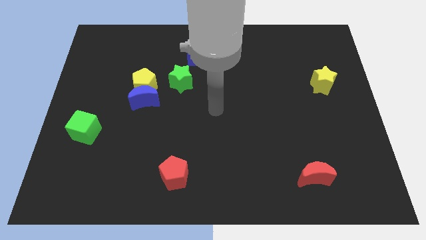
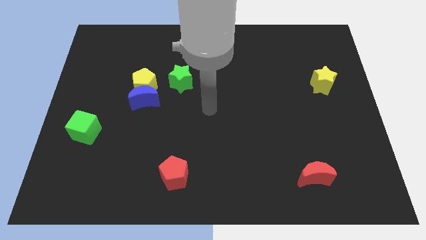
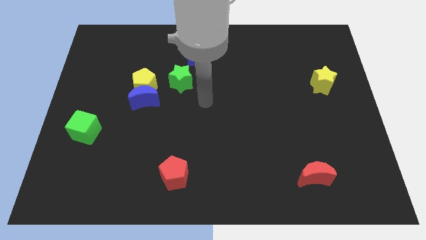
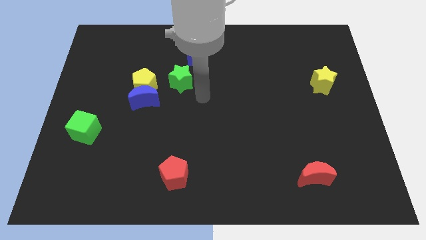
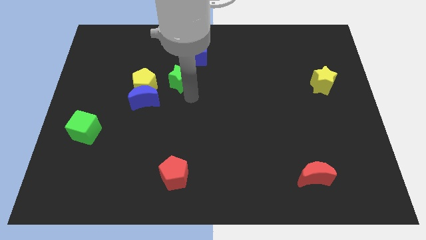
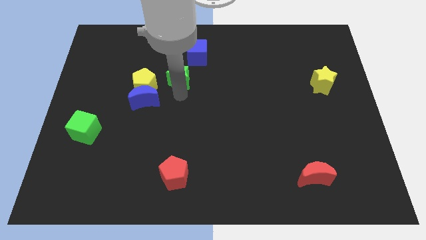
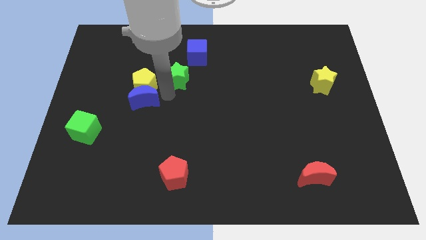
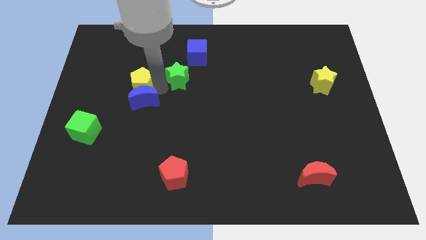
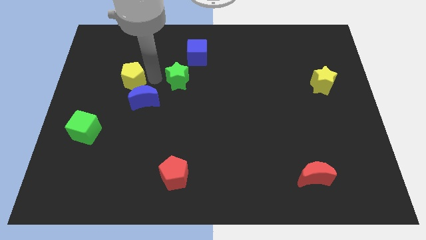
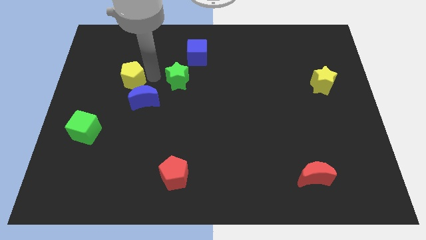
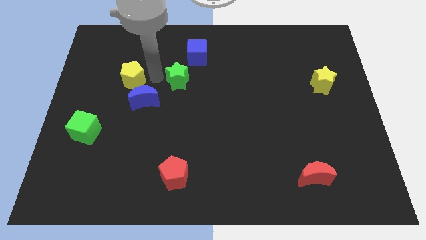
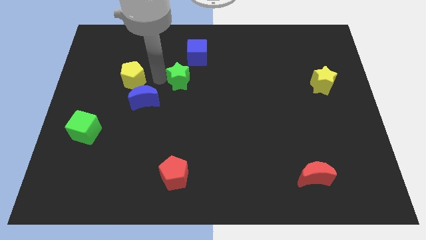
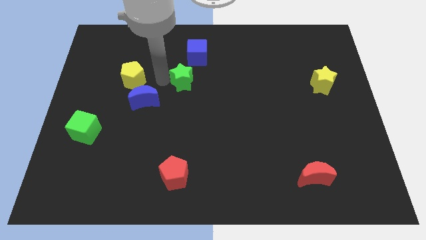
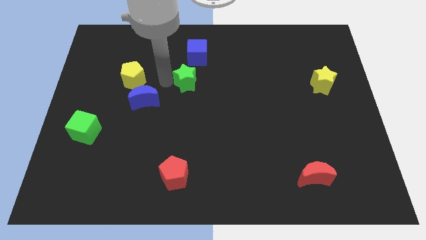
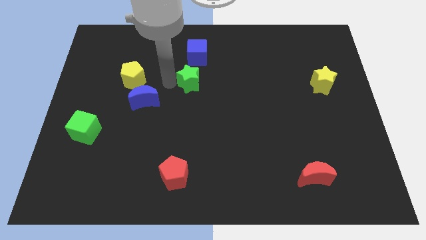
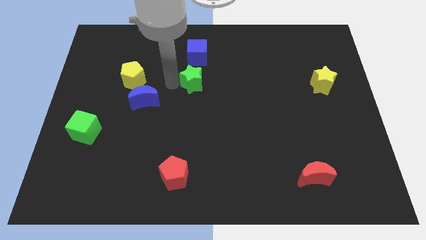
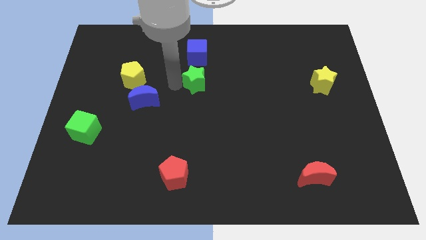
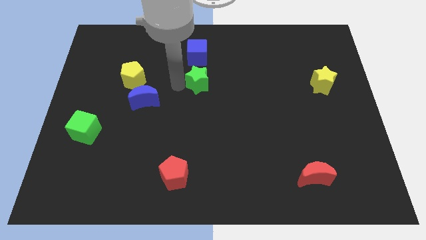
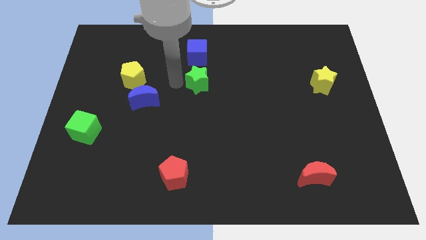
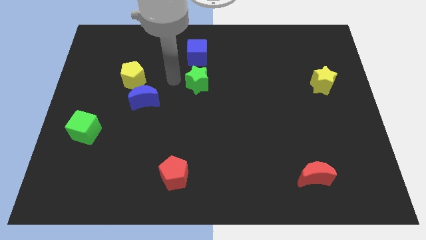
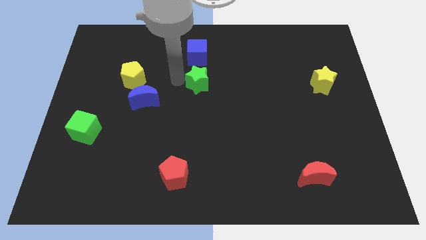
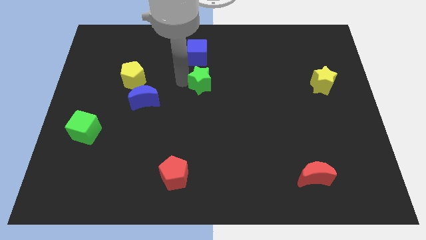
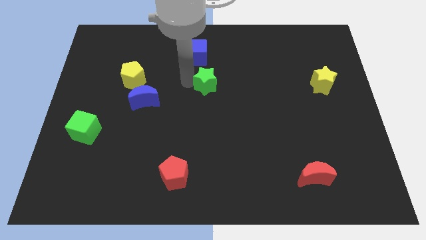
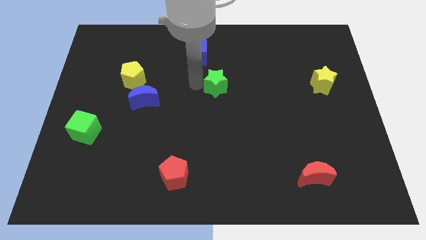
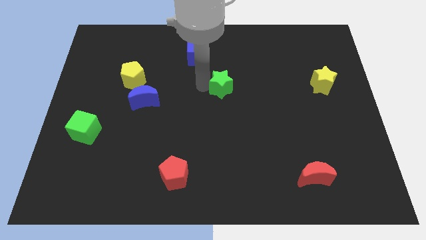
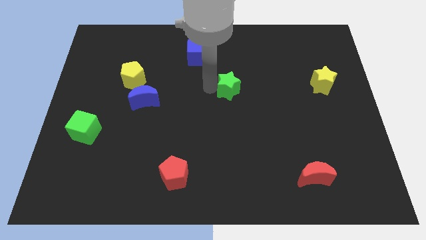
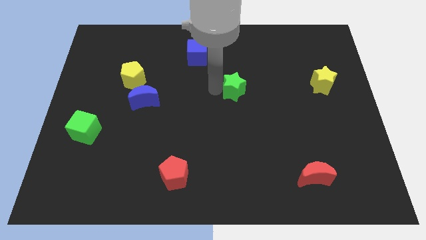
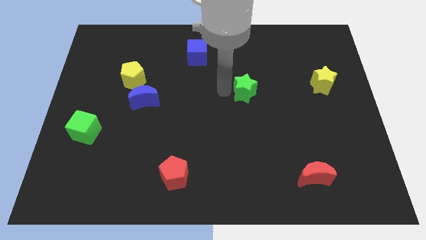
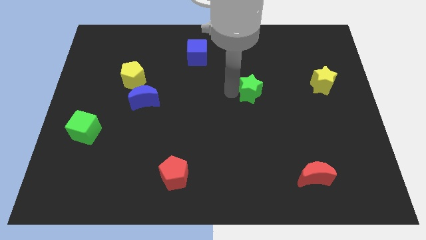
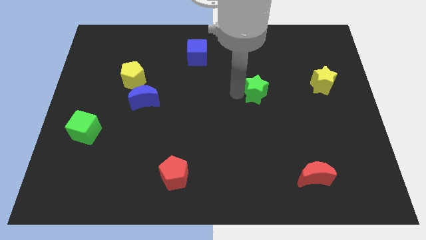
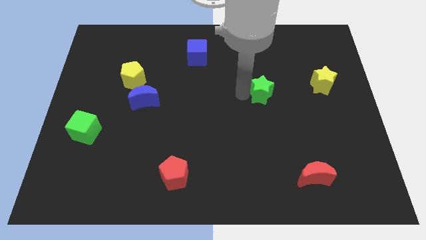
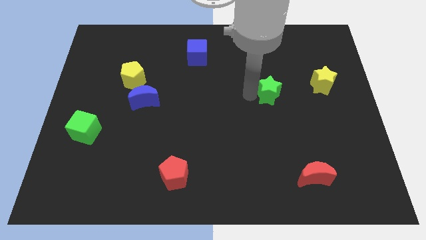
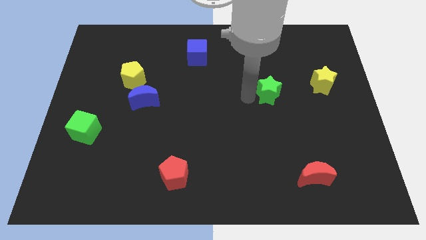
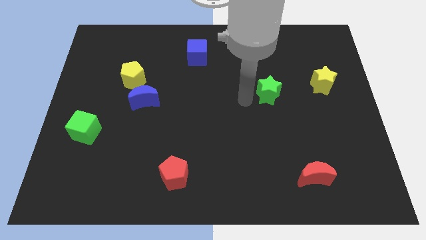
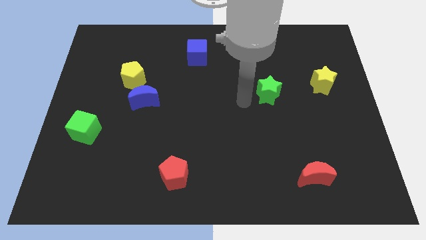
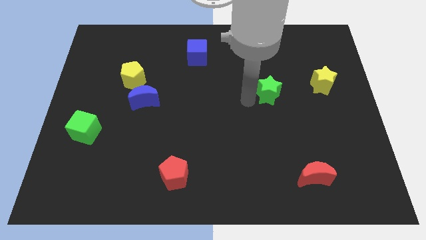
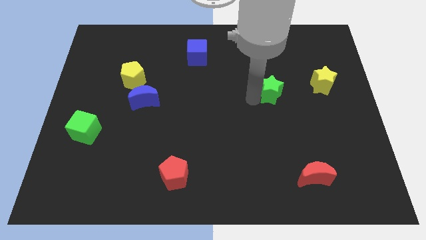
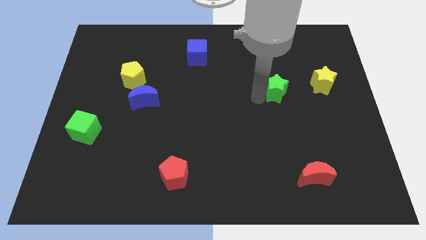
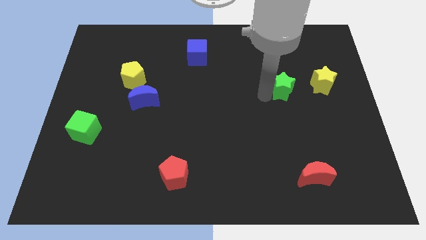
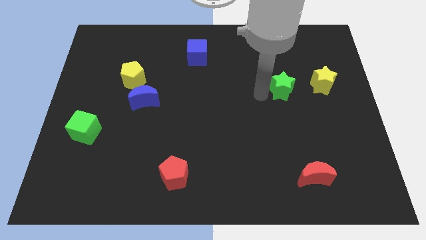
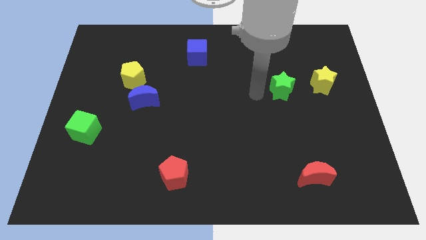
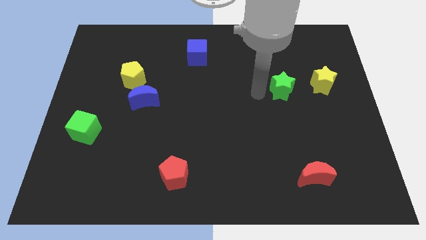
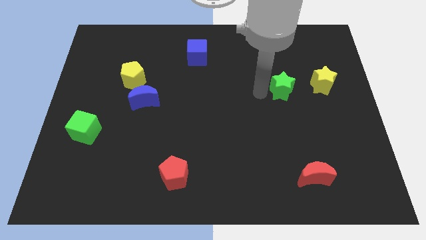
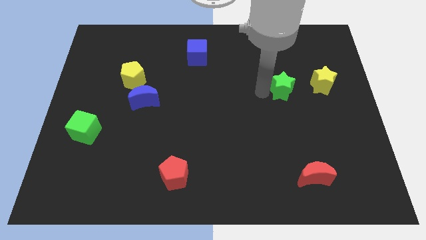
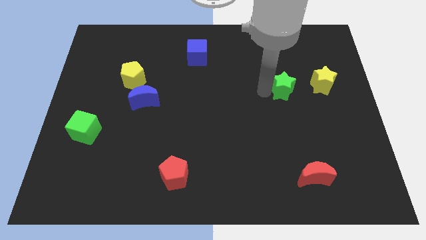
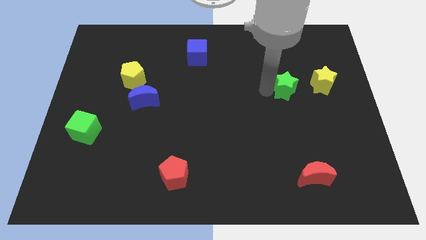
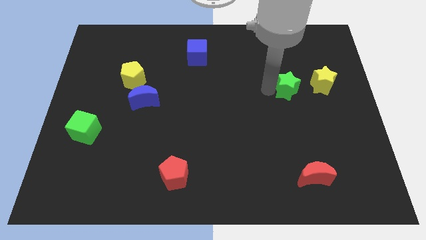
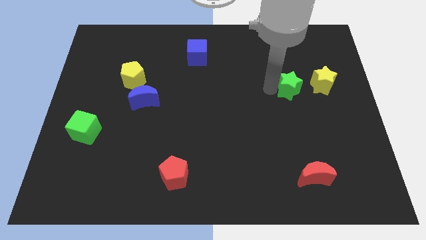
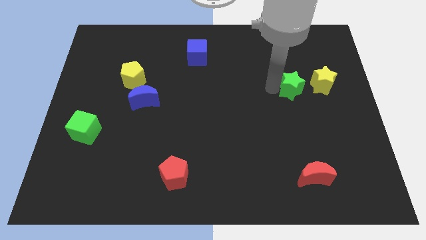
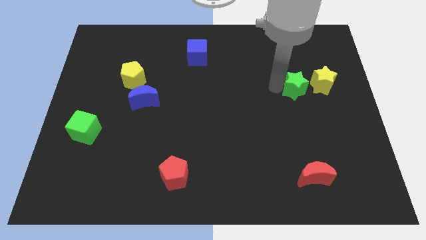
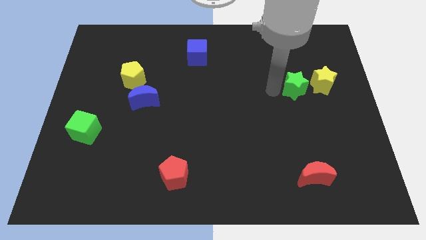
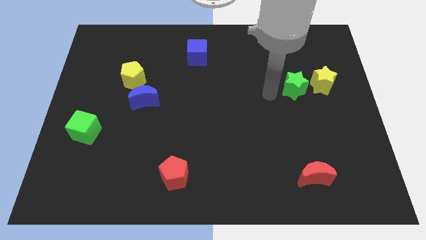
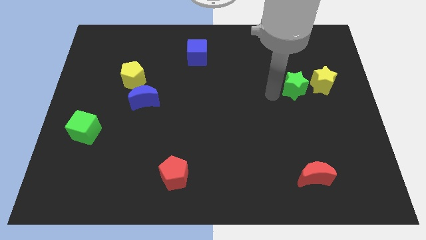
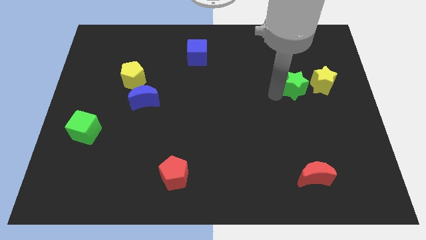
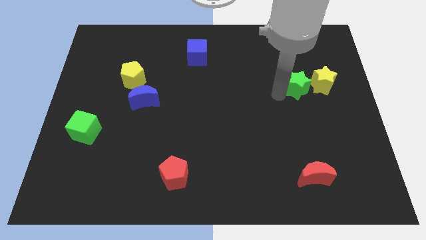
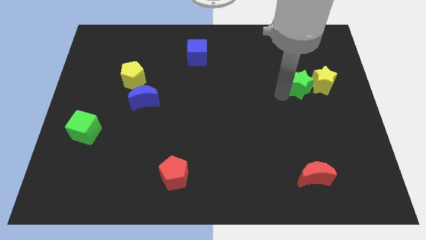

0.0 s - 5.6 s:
push the green star towards the yellow star

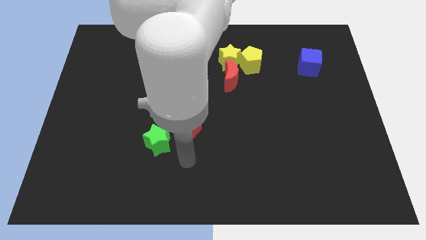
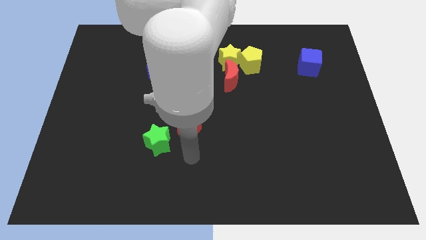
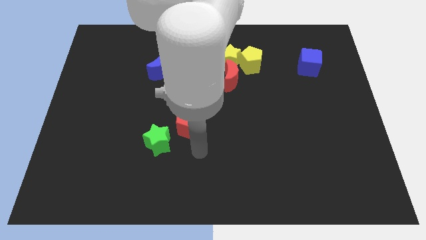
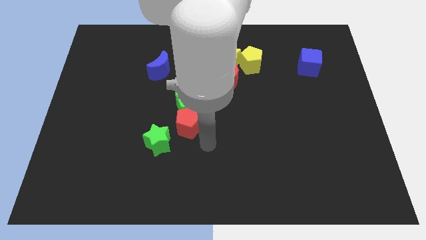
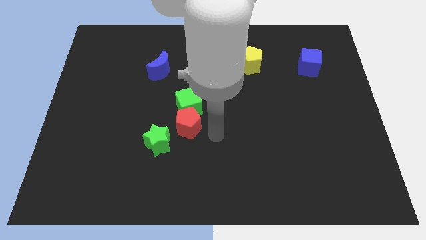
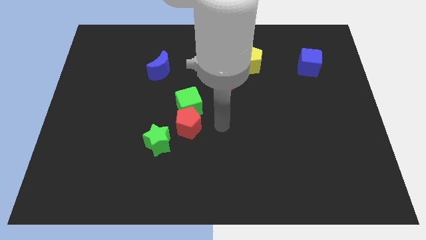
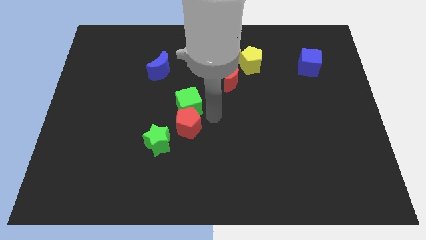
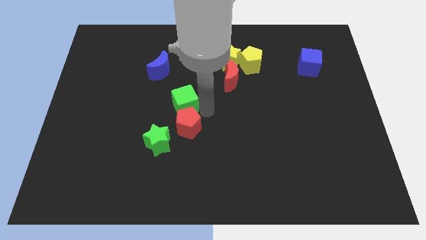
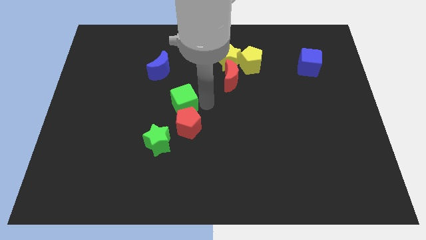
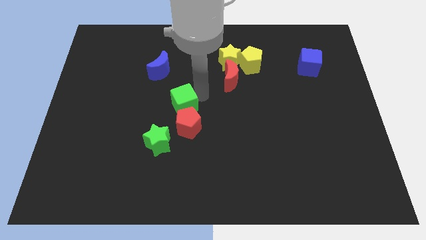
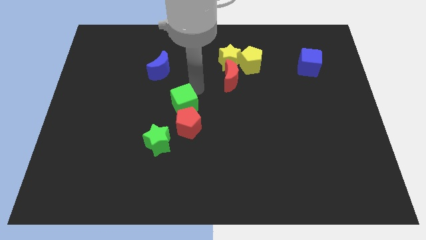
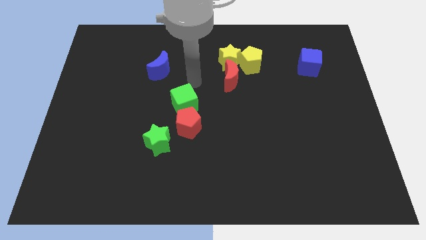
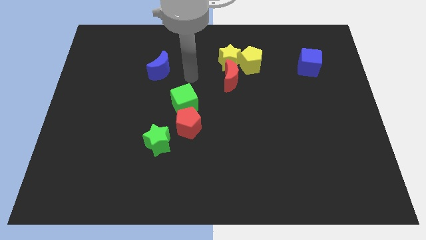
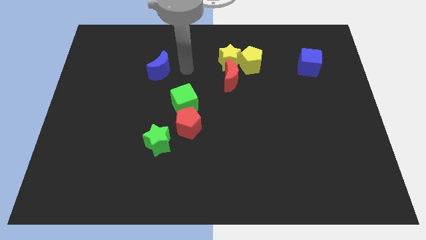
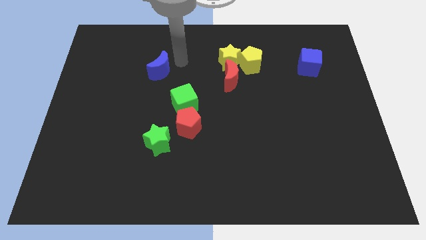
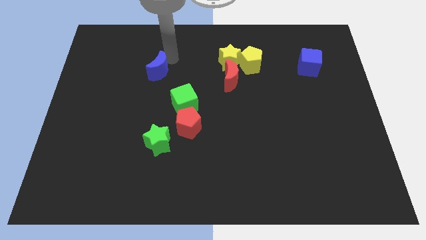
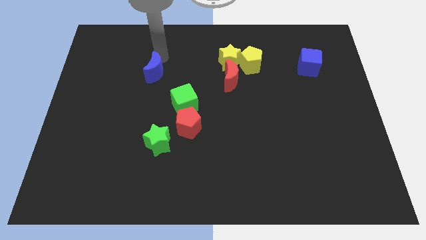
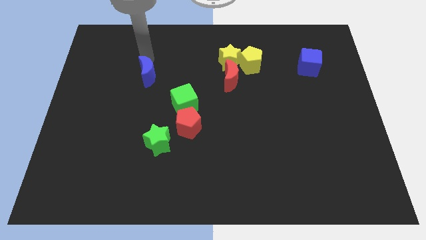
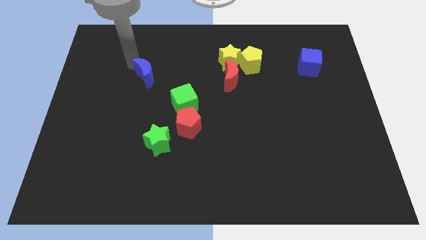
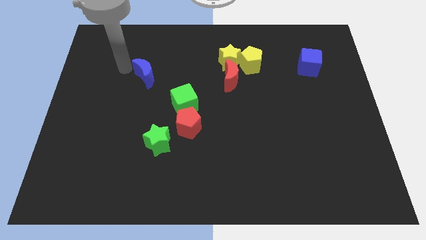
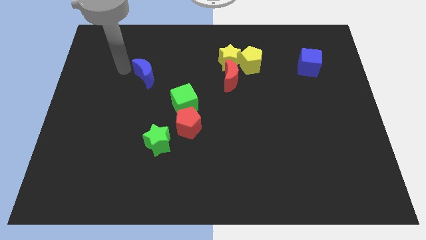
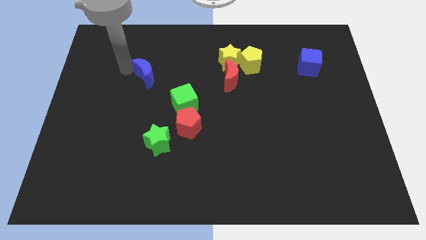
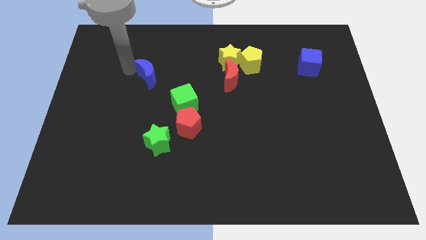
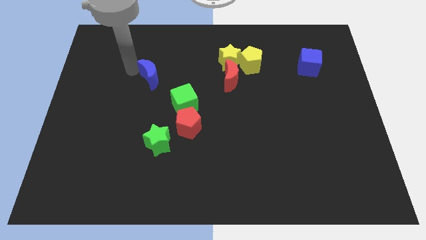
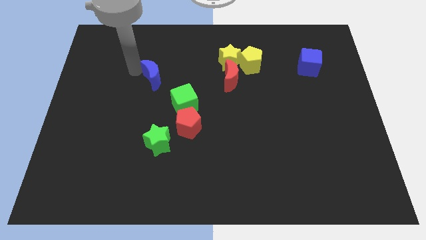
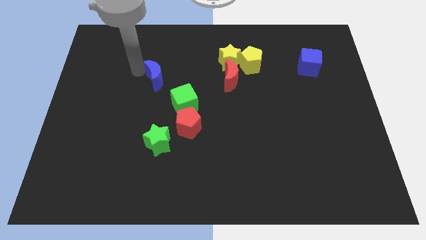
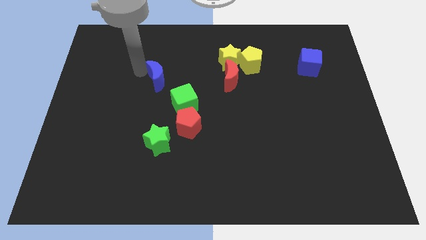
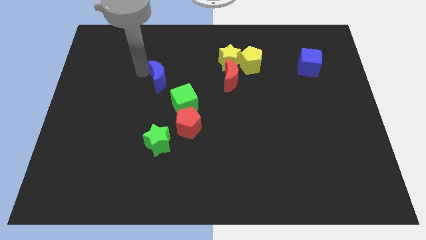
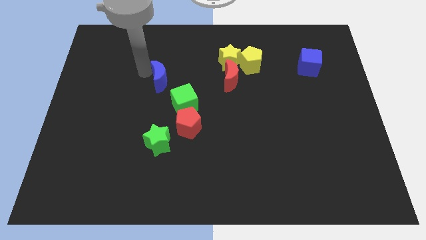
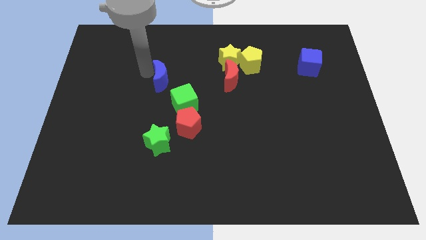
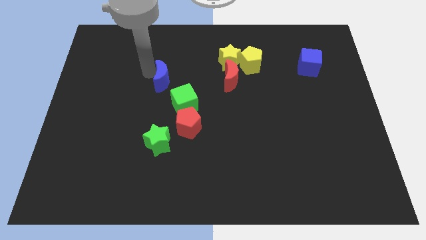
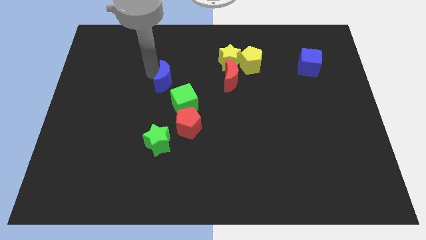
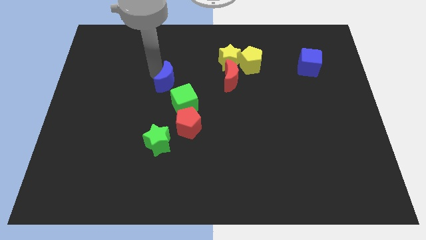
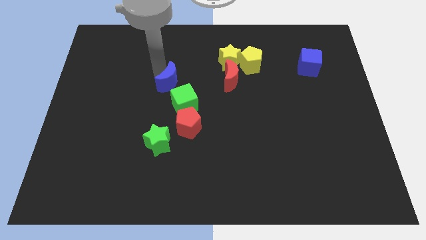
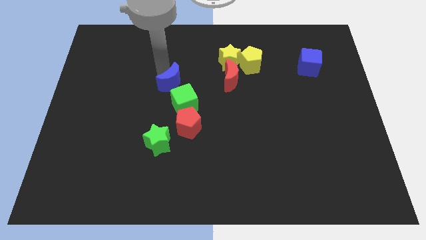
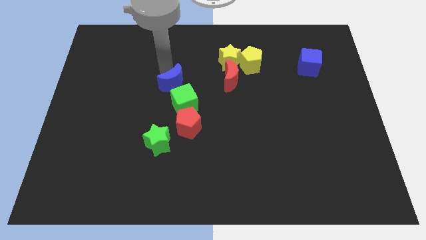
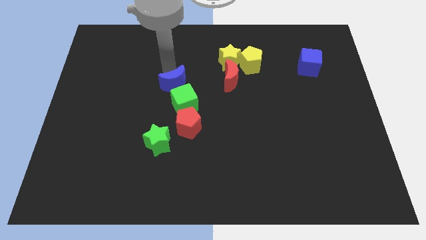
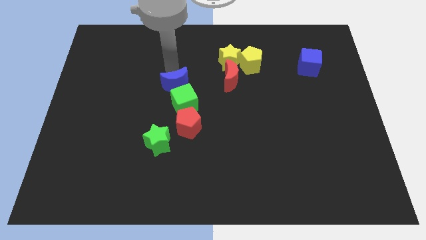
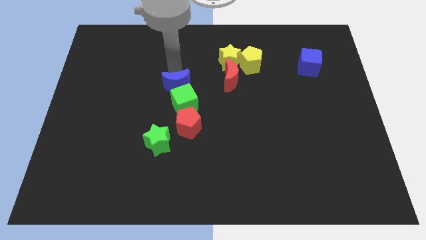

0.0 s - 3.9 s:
push the blue moon towards the green cube
